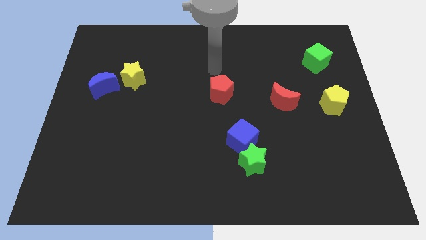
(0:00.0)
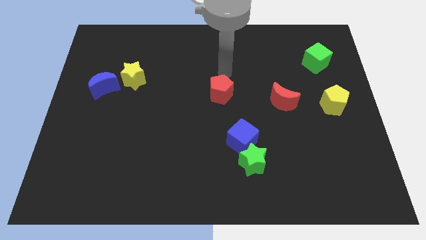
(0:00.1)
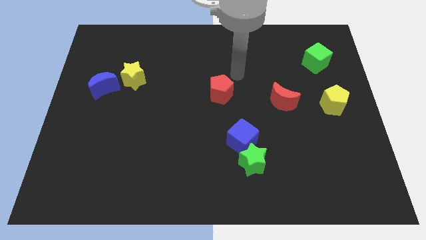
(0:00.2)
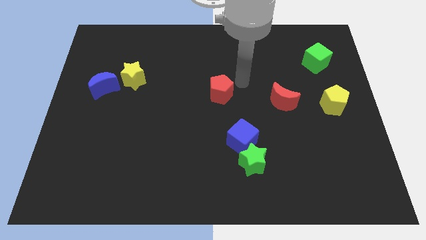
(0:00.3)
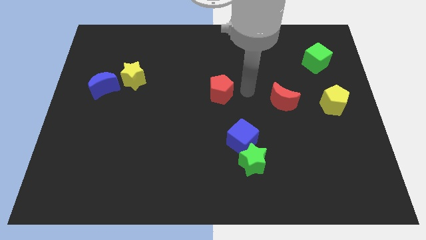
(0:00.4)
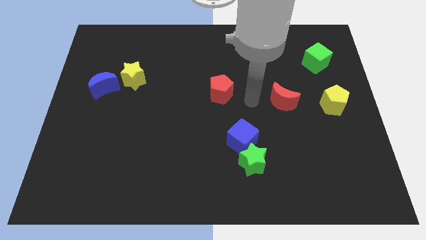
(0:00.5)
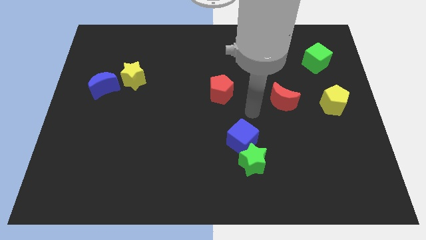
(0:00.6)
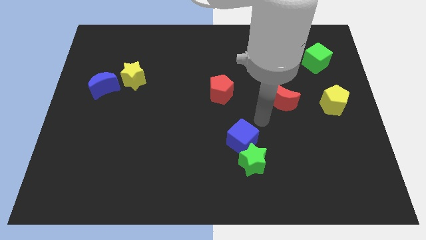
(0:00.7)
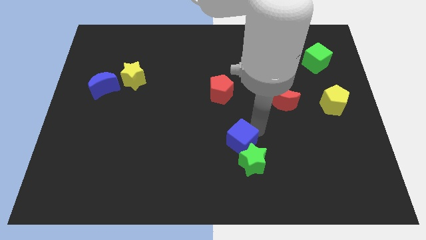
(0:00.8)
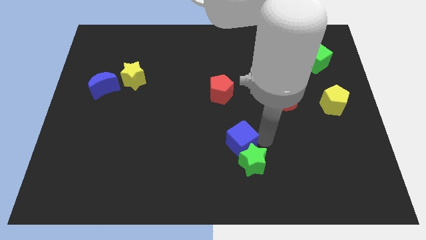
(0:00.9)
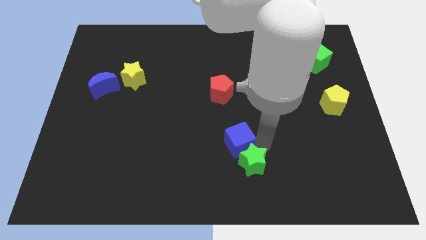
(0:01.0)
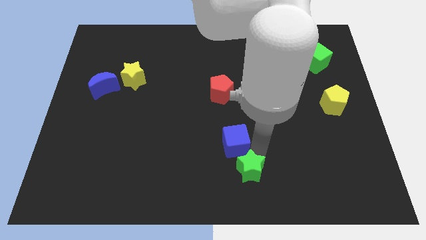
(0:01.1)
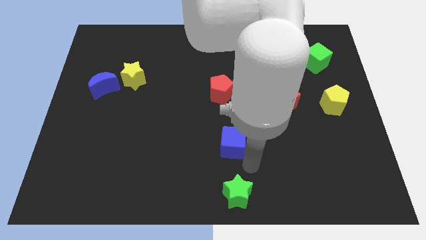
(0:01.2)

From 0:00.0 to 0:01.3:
move the blue cube away from the green star

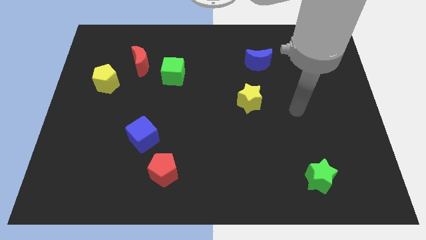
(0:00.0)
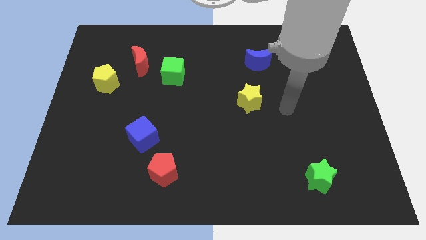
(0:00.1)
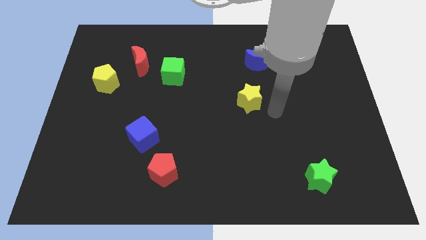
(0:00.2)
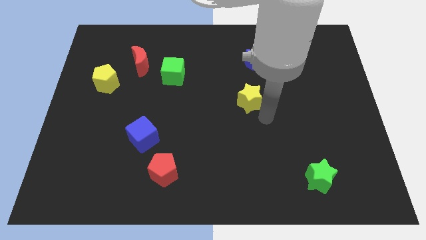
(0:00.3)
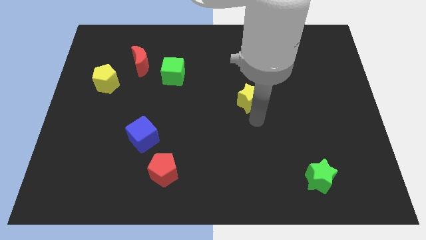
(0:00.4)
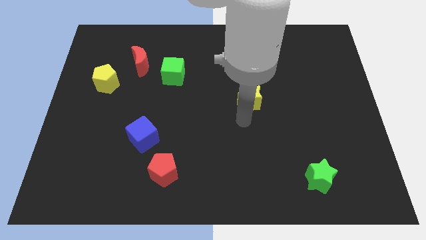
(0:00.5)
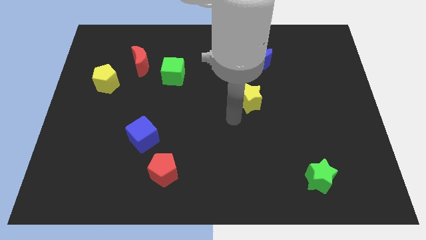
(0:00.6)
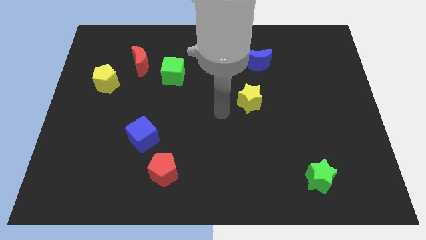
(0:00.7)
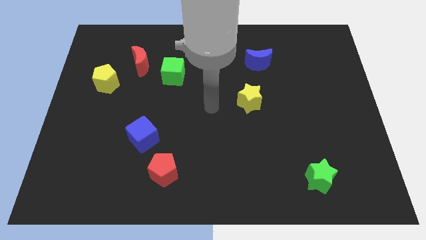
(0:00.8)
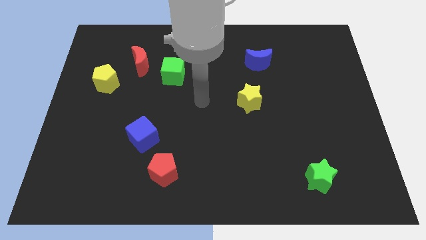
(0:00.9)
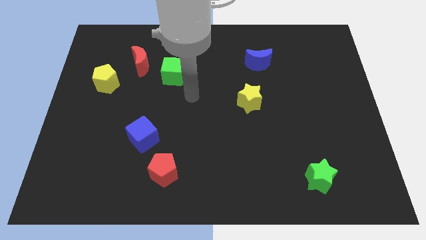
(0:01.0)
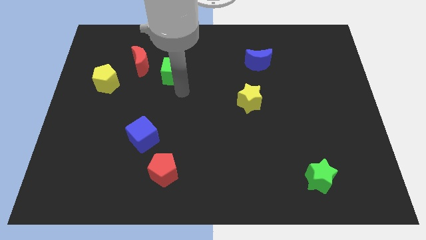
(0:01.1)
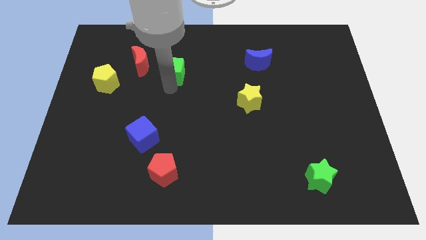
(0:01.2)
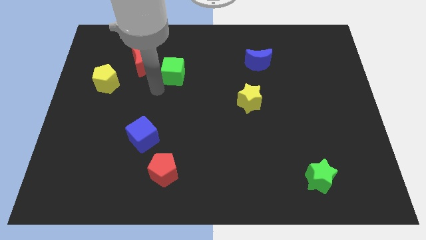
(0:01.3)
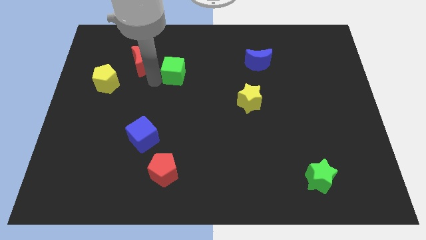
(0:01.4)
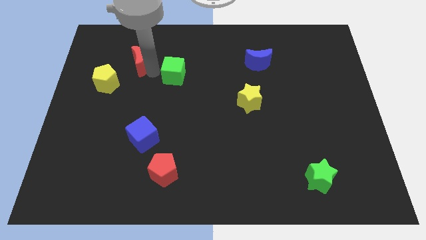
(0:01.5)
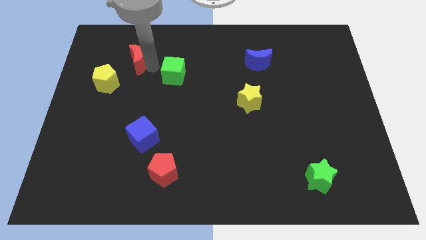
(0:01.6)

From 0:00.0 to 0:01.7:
move the green cube away from the red moon

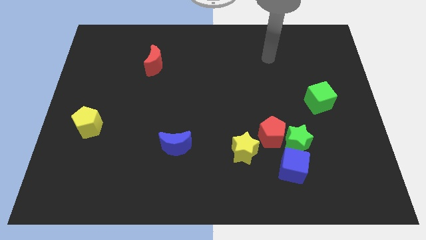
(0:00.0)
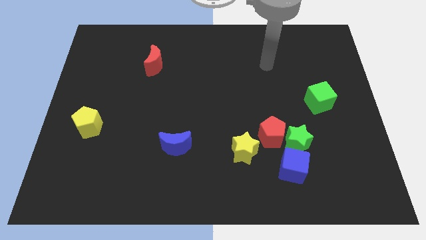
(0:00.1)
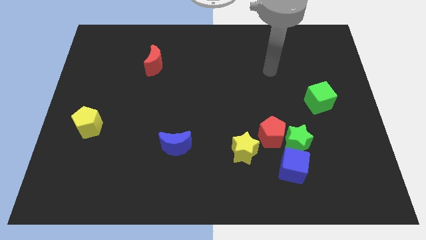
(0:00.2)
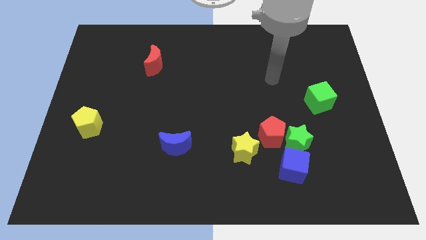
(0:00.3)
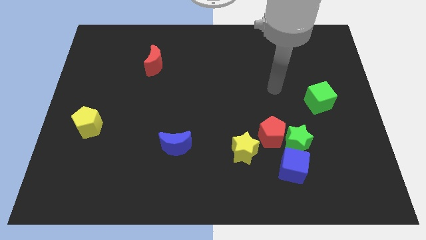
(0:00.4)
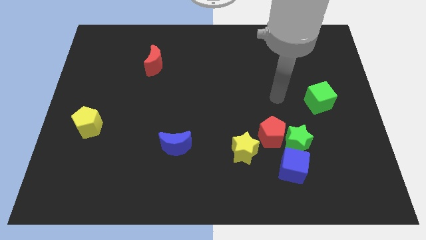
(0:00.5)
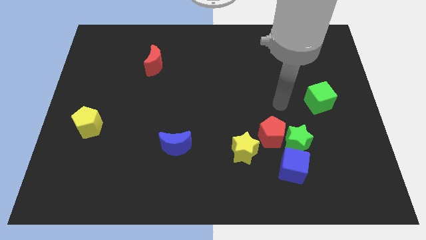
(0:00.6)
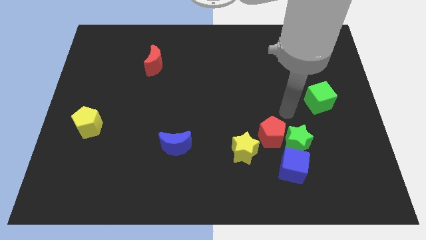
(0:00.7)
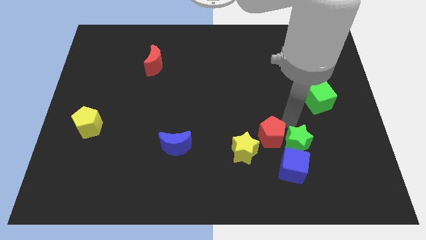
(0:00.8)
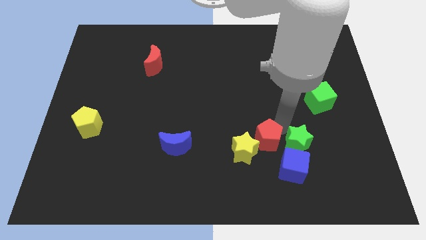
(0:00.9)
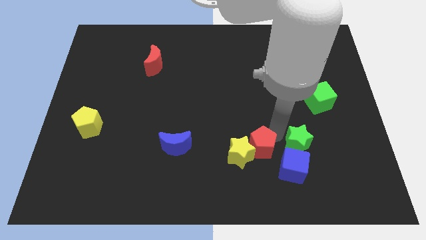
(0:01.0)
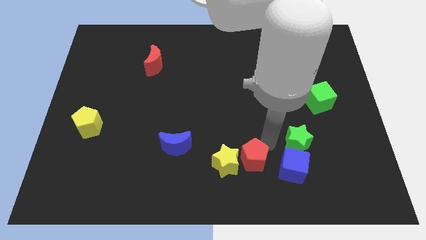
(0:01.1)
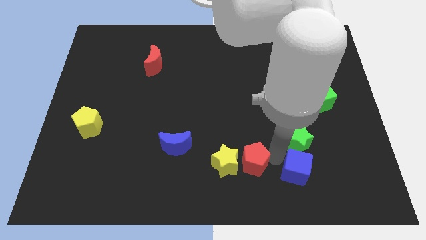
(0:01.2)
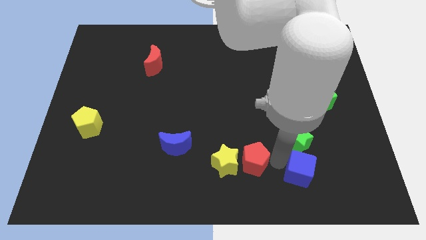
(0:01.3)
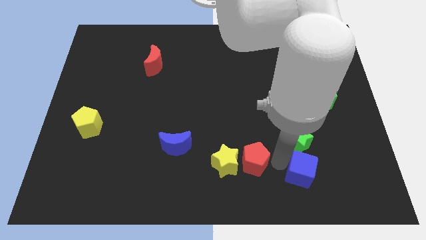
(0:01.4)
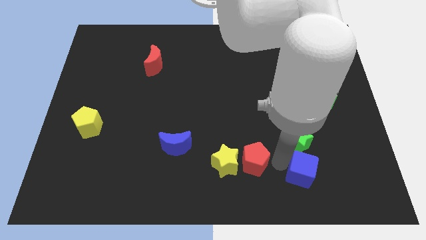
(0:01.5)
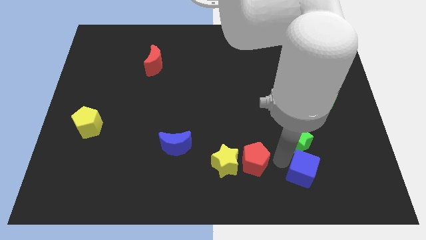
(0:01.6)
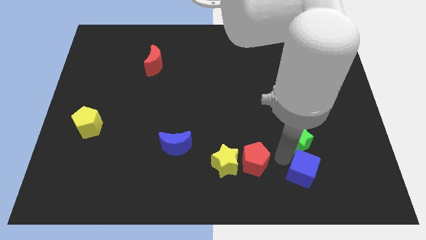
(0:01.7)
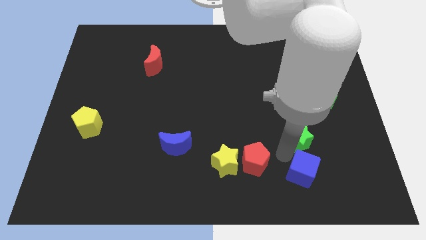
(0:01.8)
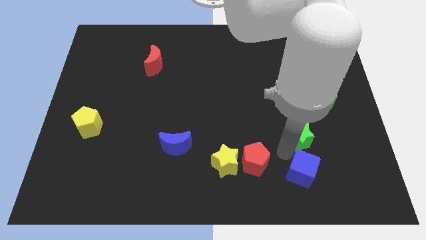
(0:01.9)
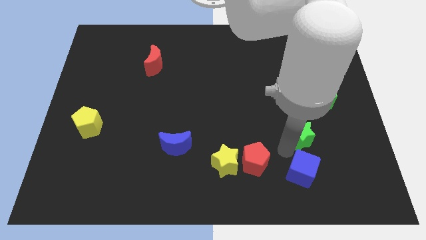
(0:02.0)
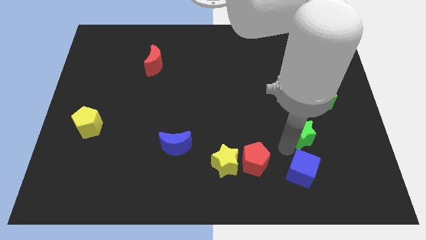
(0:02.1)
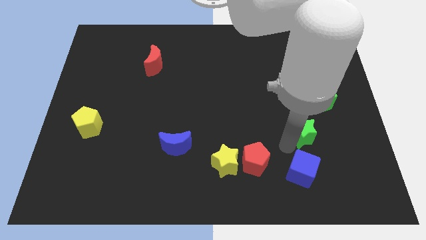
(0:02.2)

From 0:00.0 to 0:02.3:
move the green star away from the red pentagon and blue cube

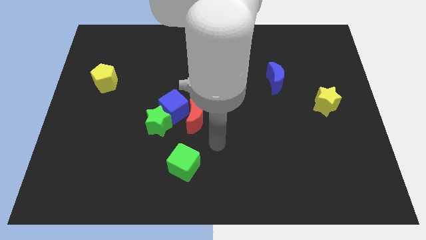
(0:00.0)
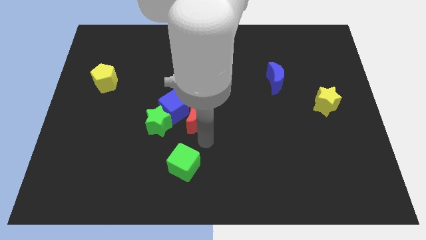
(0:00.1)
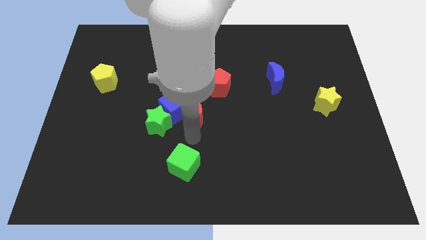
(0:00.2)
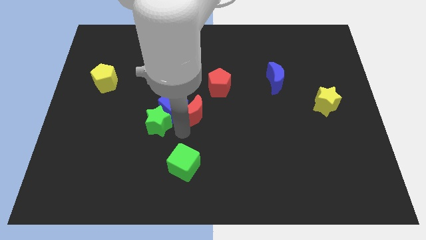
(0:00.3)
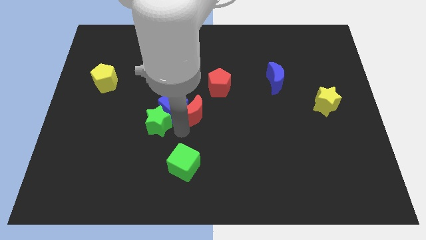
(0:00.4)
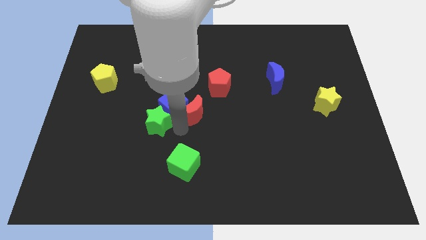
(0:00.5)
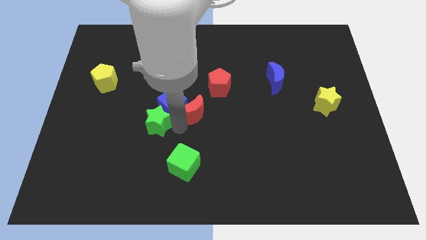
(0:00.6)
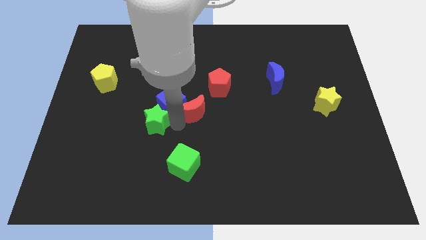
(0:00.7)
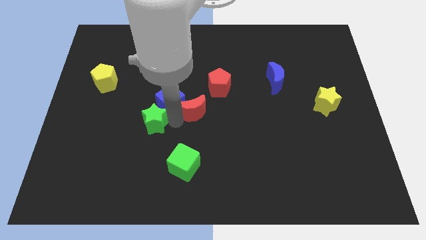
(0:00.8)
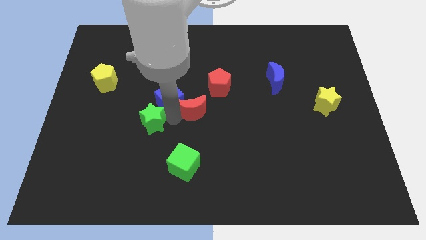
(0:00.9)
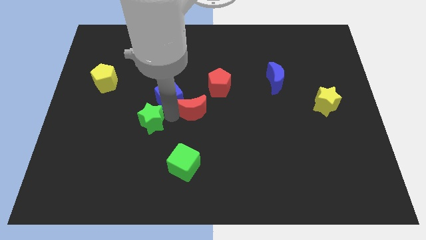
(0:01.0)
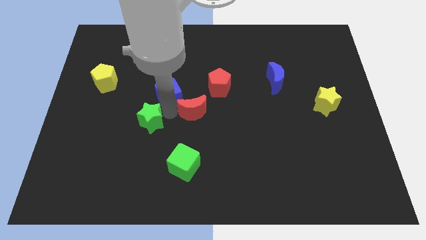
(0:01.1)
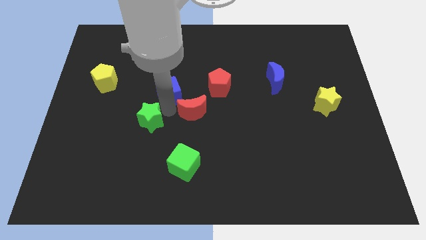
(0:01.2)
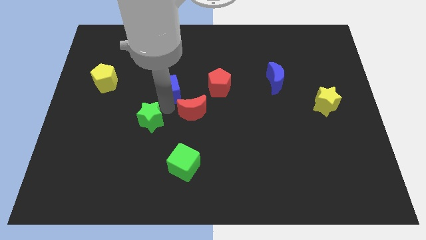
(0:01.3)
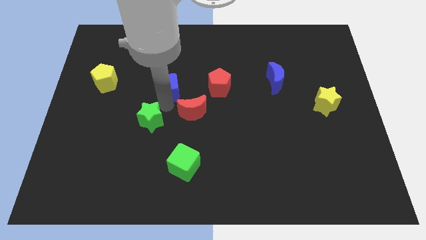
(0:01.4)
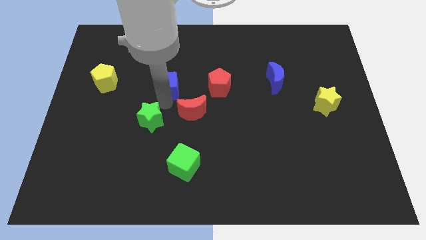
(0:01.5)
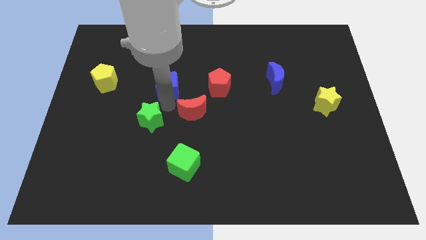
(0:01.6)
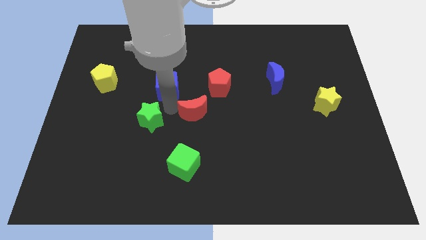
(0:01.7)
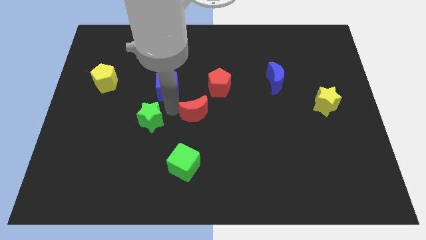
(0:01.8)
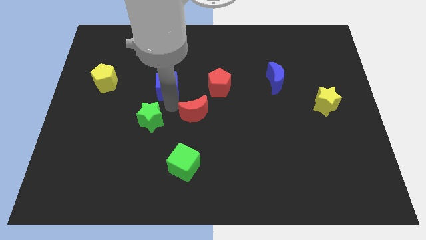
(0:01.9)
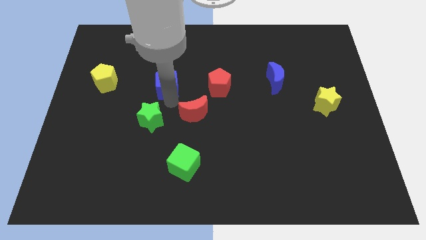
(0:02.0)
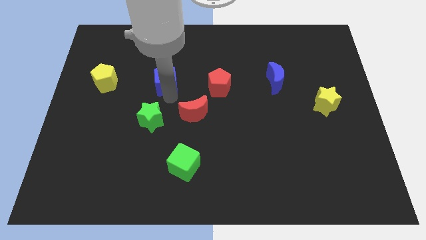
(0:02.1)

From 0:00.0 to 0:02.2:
pull the blue cube apart from the green star and red moon

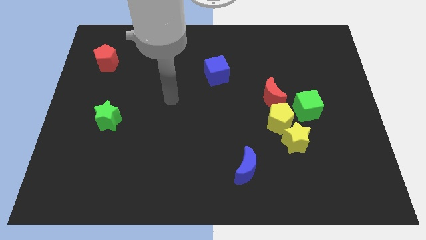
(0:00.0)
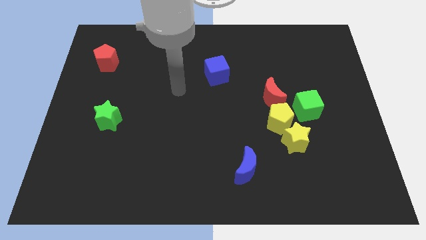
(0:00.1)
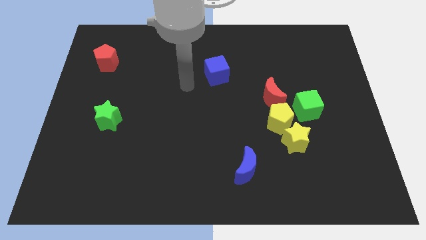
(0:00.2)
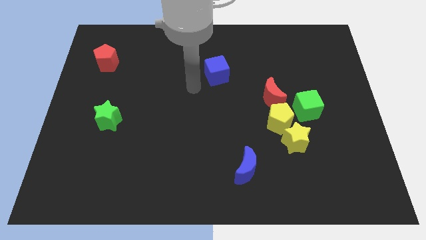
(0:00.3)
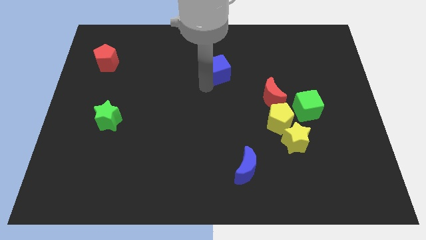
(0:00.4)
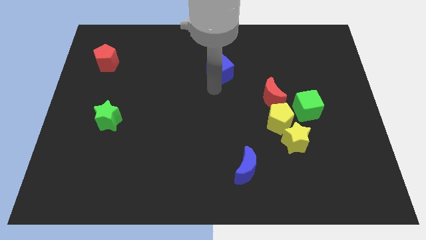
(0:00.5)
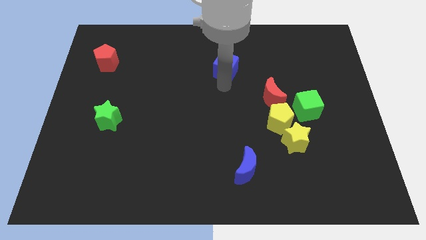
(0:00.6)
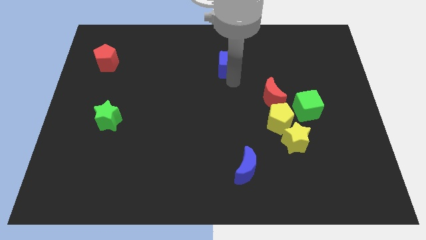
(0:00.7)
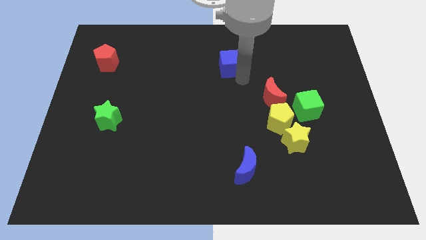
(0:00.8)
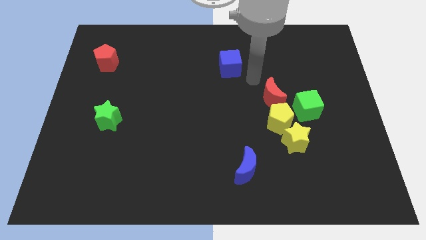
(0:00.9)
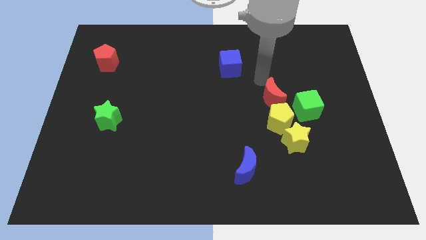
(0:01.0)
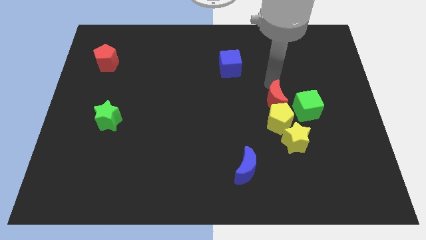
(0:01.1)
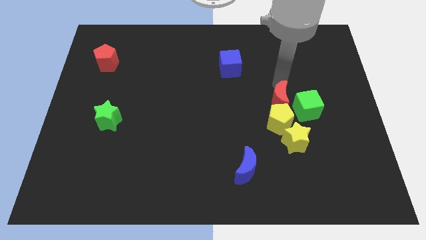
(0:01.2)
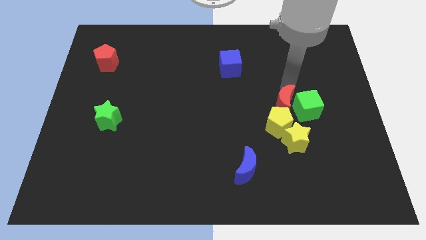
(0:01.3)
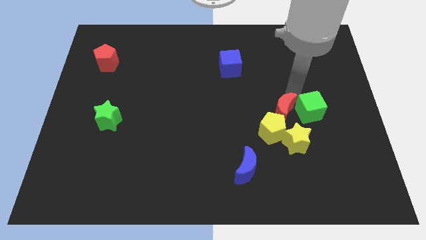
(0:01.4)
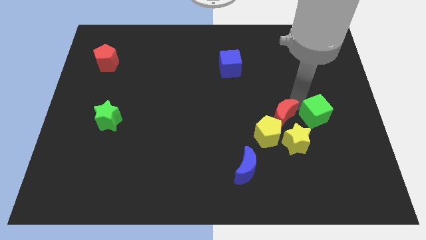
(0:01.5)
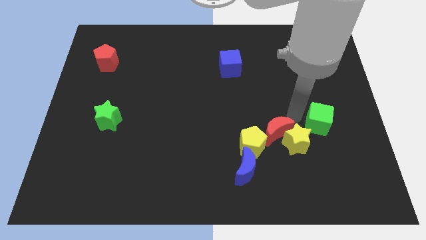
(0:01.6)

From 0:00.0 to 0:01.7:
move the yellow pentagon away from the group

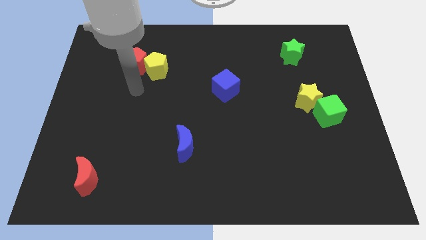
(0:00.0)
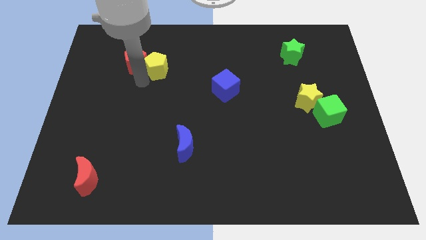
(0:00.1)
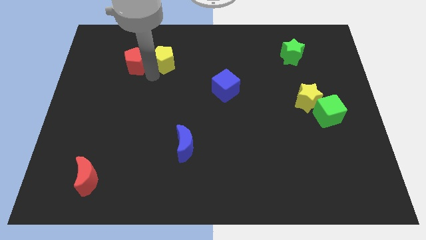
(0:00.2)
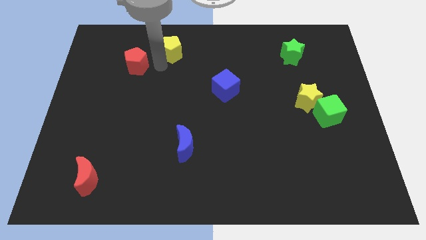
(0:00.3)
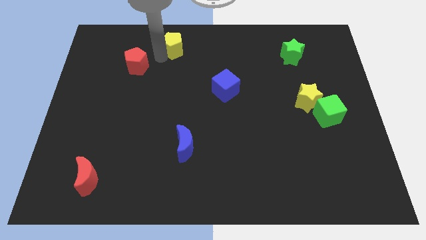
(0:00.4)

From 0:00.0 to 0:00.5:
move the red pentagon away from the yellow pentagon
